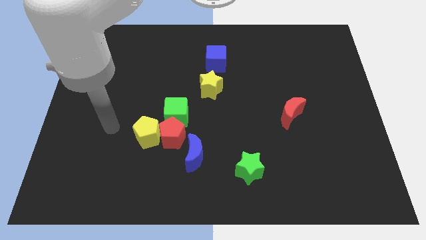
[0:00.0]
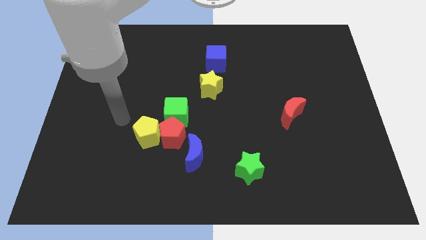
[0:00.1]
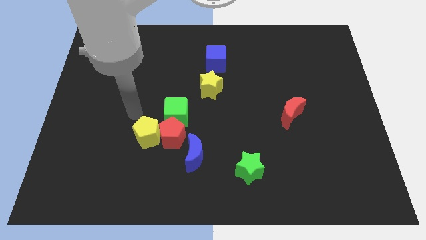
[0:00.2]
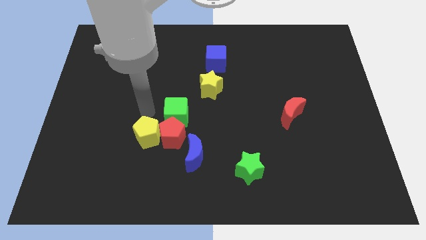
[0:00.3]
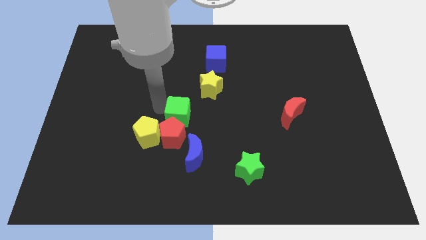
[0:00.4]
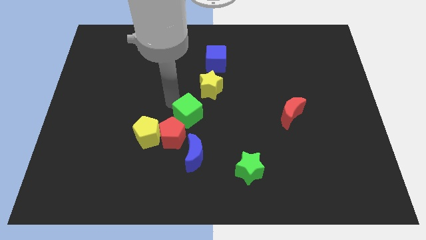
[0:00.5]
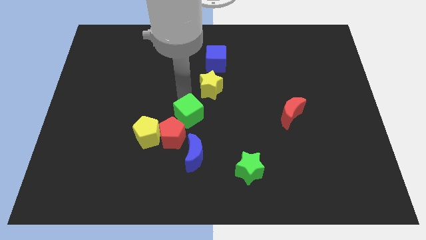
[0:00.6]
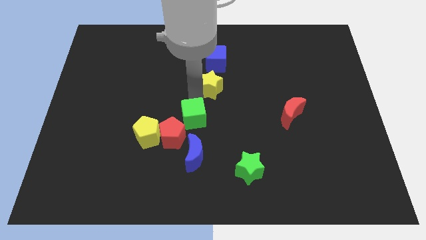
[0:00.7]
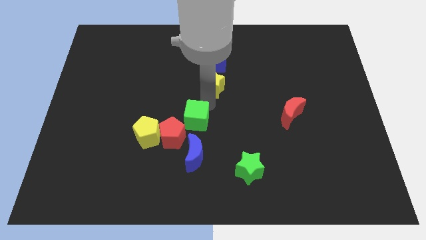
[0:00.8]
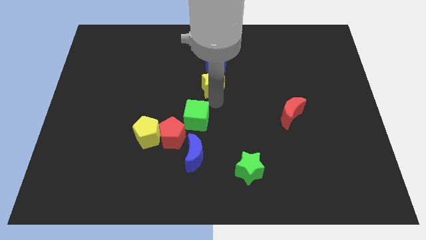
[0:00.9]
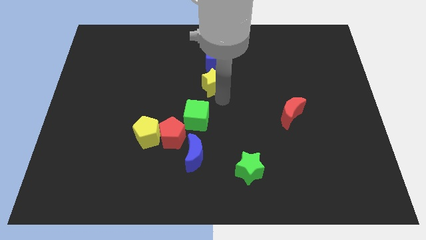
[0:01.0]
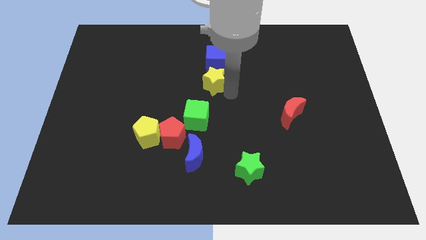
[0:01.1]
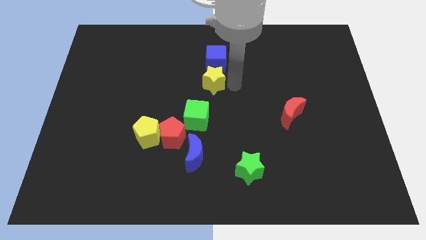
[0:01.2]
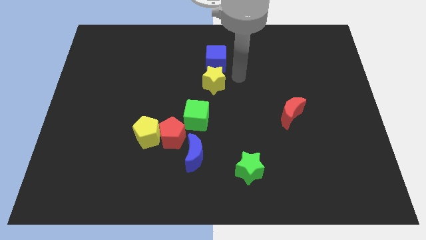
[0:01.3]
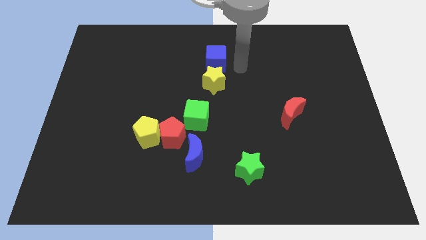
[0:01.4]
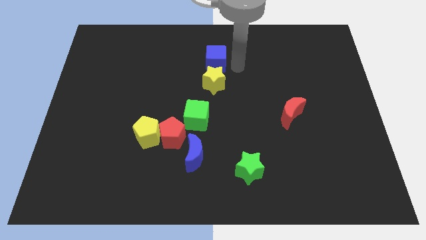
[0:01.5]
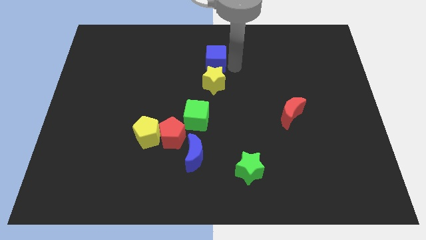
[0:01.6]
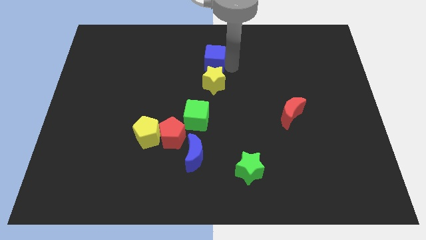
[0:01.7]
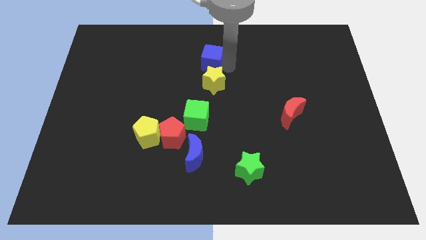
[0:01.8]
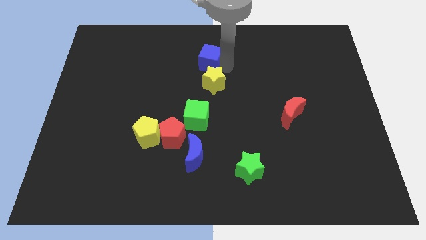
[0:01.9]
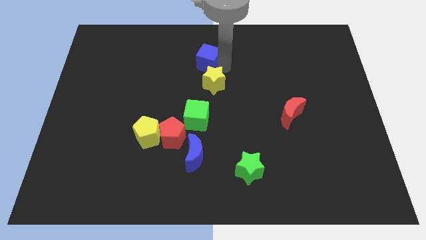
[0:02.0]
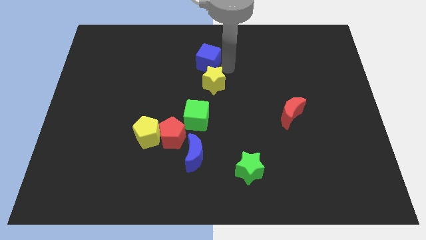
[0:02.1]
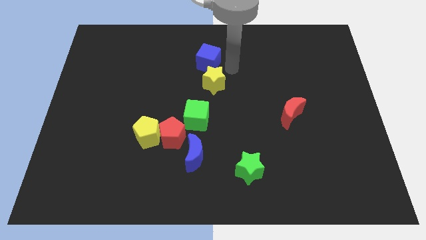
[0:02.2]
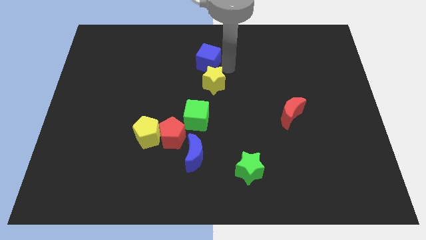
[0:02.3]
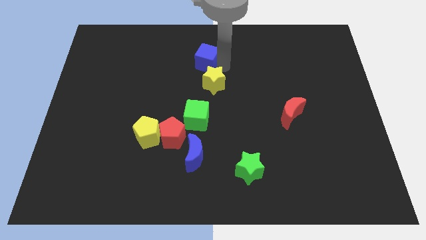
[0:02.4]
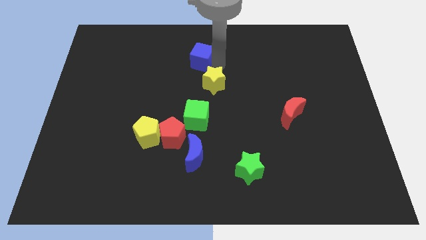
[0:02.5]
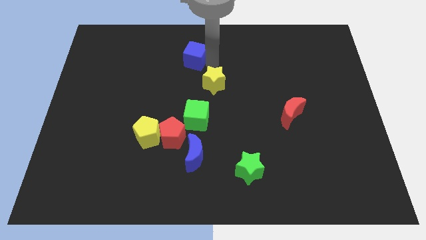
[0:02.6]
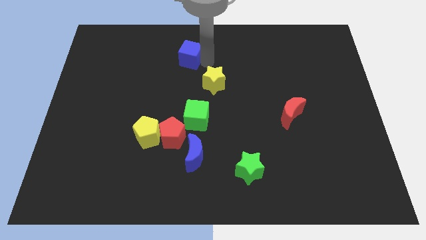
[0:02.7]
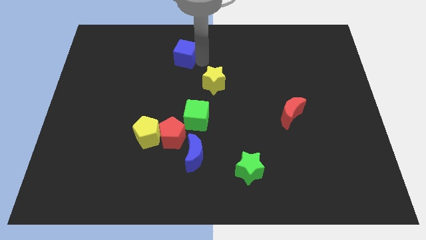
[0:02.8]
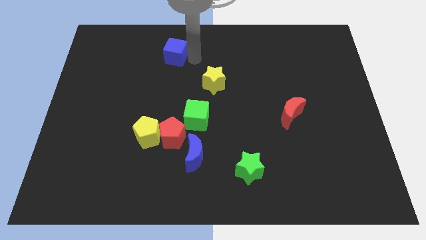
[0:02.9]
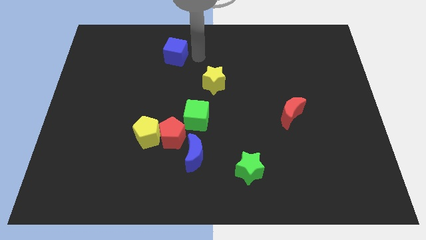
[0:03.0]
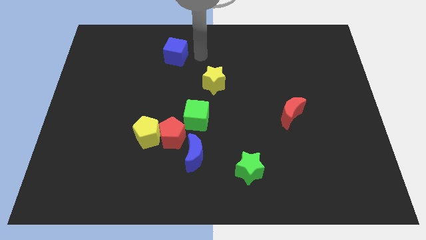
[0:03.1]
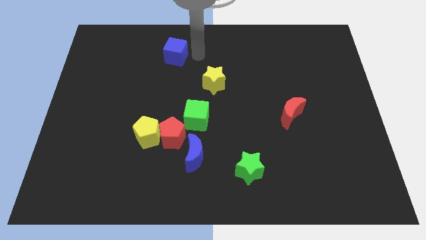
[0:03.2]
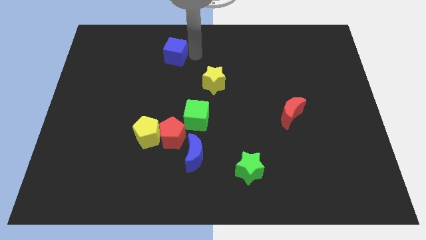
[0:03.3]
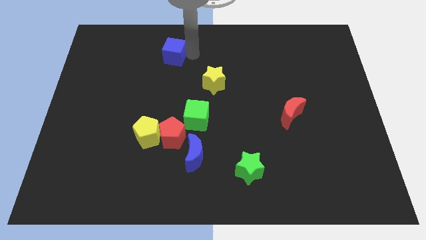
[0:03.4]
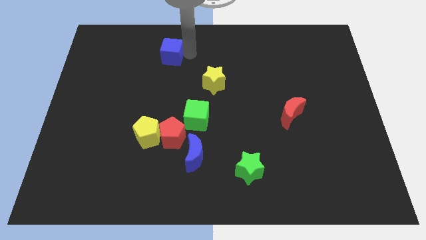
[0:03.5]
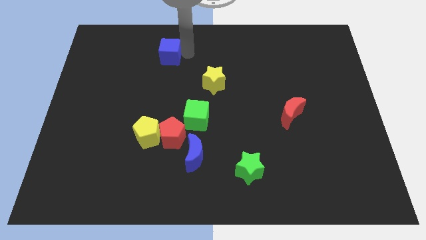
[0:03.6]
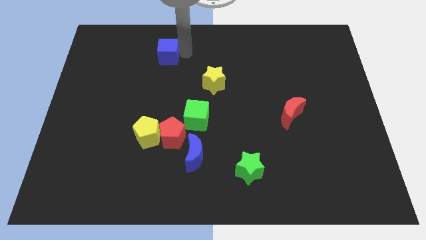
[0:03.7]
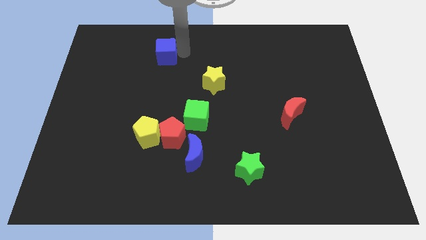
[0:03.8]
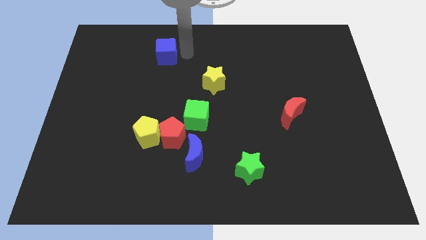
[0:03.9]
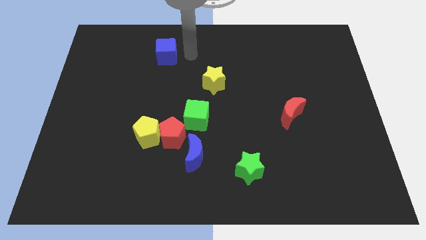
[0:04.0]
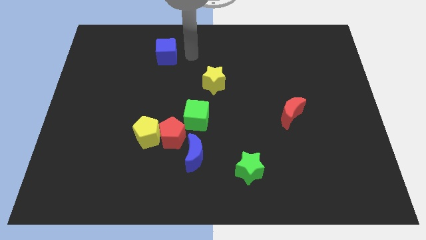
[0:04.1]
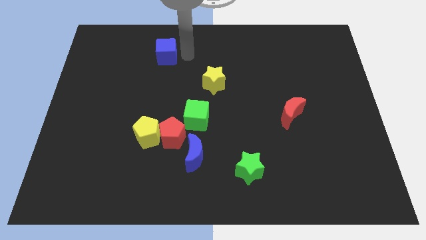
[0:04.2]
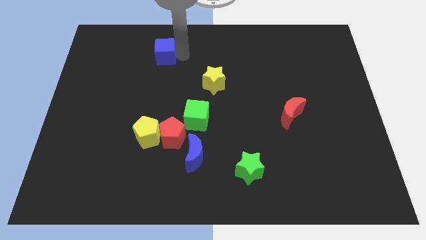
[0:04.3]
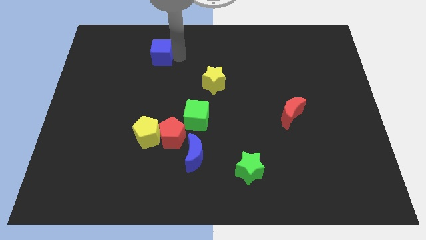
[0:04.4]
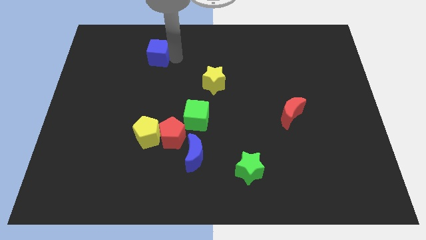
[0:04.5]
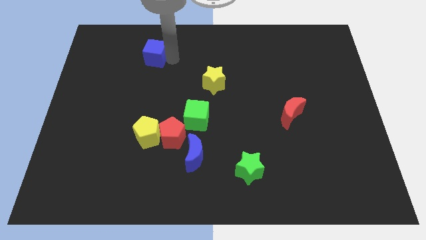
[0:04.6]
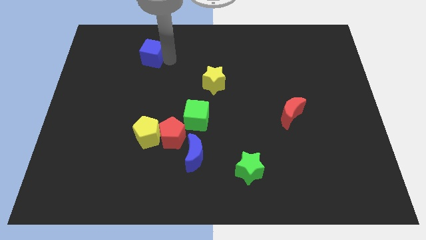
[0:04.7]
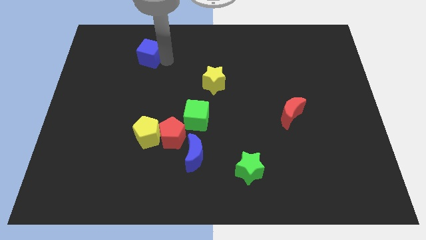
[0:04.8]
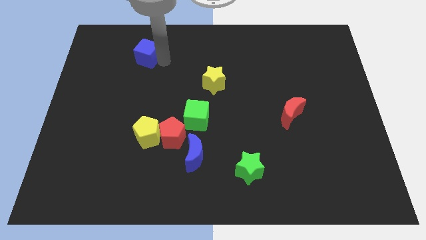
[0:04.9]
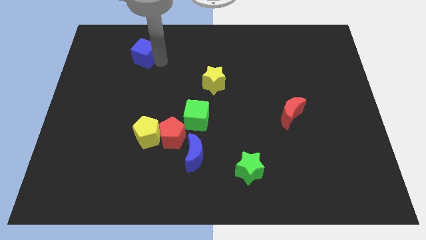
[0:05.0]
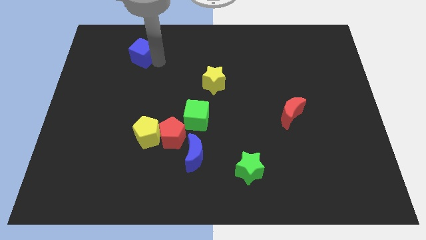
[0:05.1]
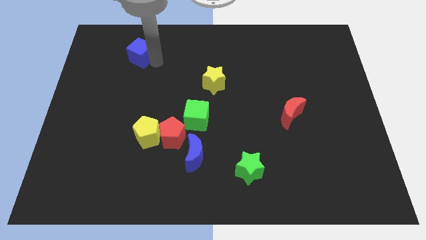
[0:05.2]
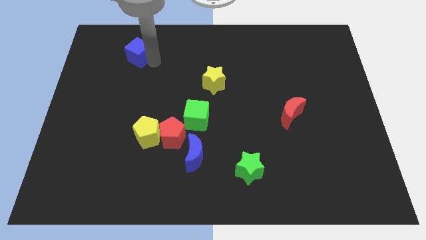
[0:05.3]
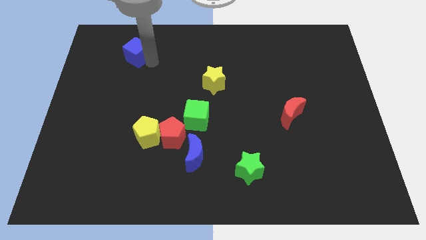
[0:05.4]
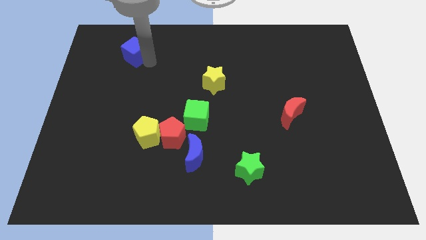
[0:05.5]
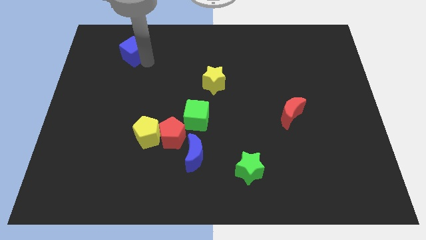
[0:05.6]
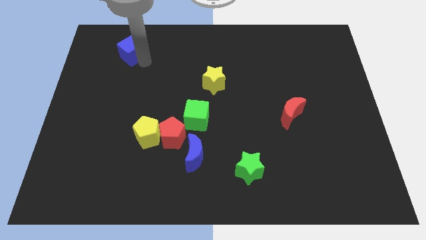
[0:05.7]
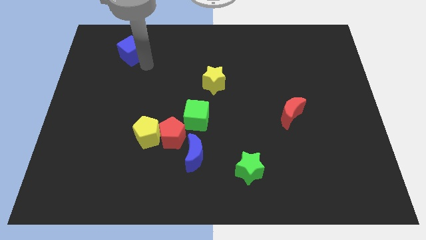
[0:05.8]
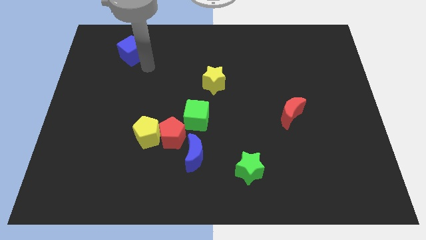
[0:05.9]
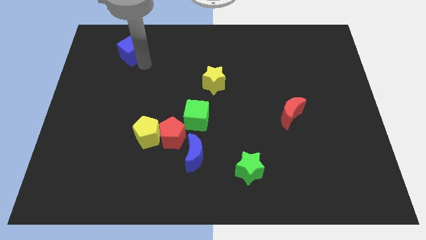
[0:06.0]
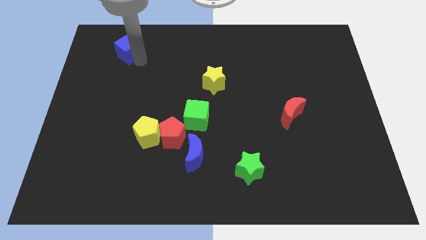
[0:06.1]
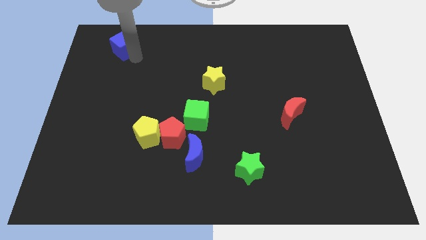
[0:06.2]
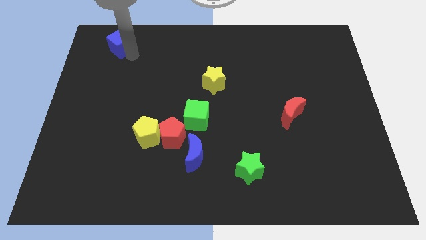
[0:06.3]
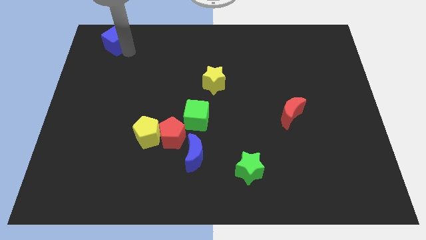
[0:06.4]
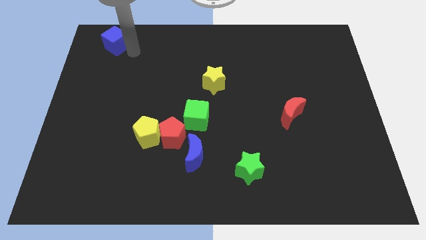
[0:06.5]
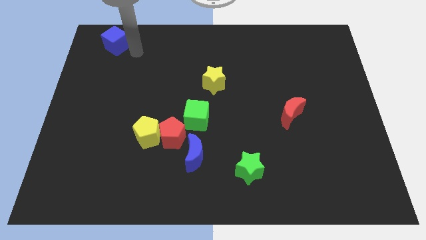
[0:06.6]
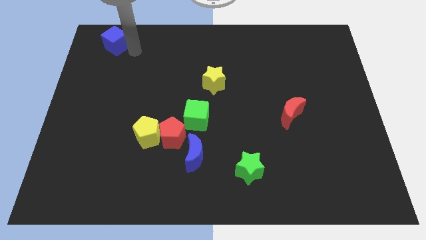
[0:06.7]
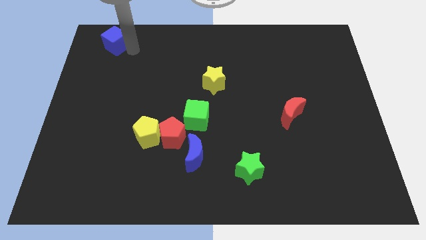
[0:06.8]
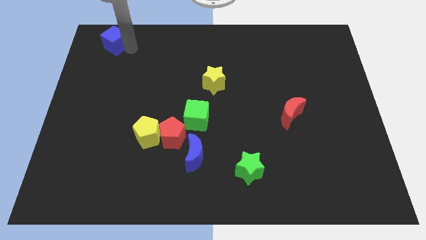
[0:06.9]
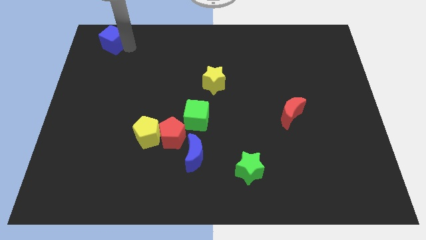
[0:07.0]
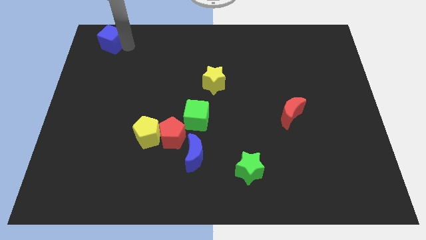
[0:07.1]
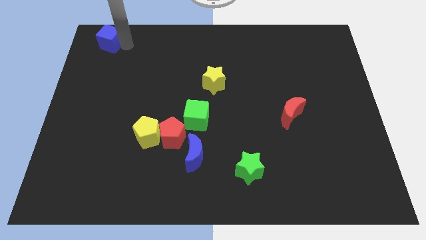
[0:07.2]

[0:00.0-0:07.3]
put the blue cube to the top left corner
